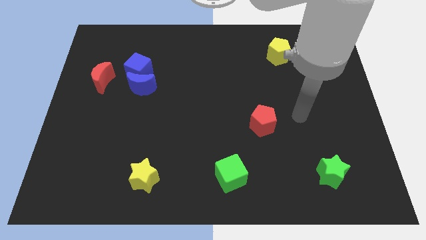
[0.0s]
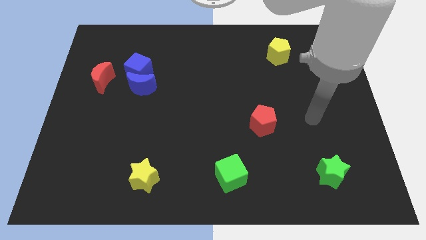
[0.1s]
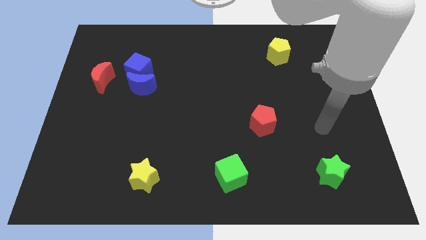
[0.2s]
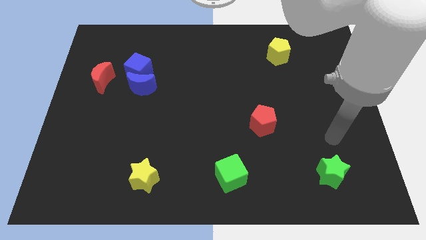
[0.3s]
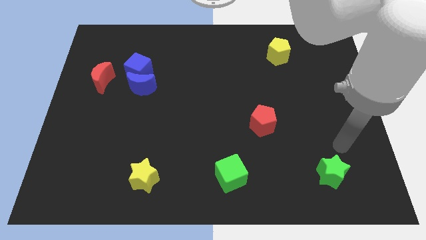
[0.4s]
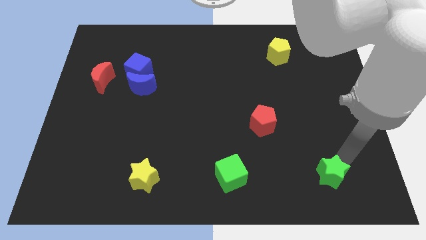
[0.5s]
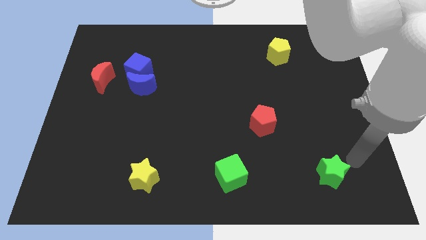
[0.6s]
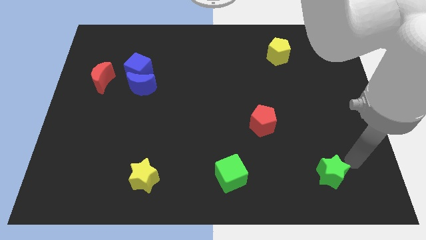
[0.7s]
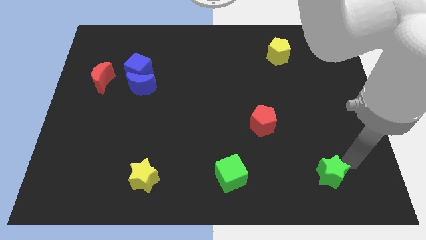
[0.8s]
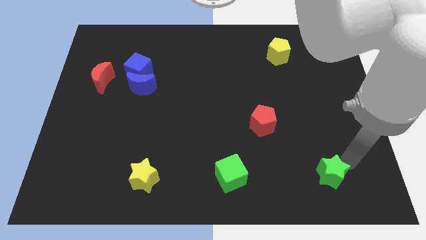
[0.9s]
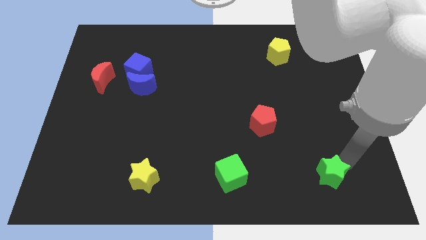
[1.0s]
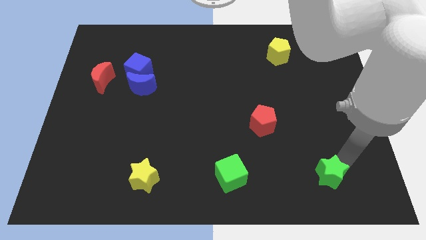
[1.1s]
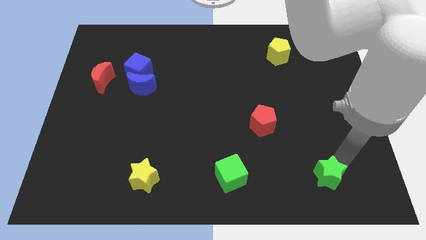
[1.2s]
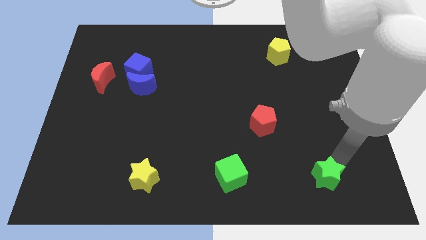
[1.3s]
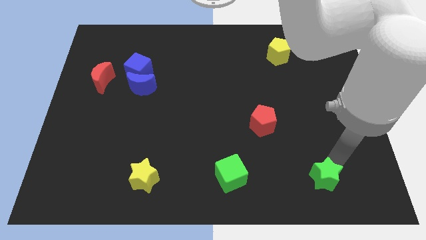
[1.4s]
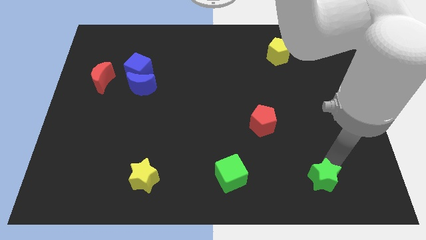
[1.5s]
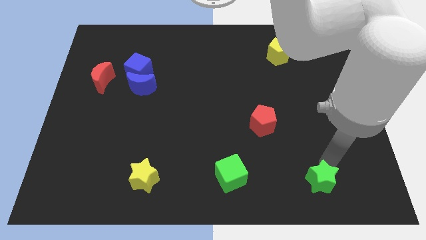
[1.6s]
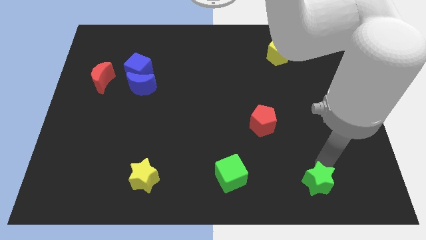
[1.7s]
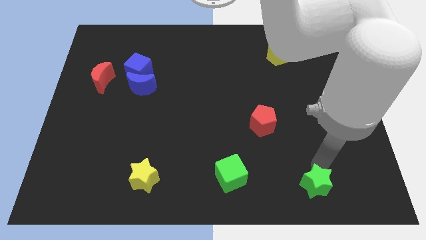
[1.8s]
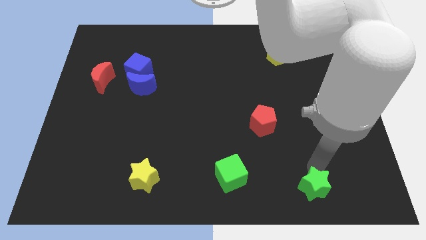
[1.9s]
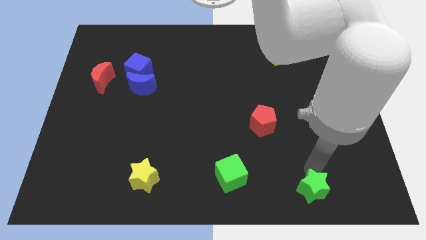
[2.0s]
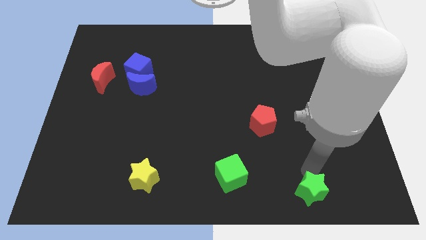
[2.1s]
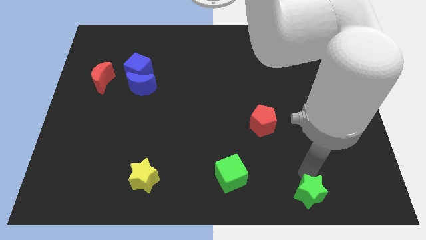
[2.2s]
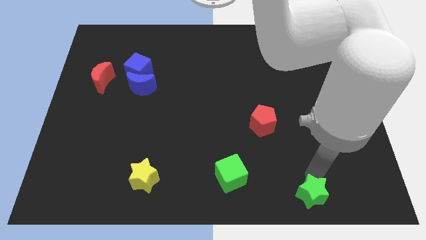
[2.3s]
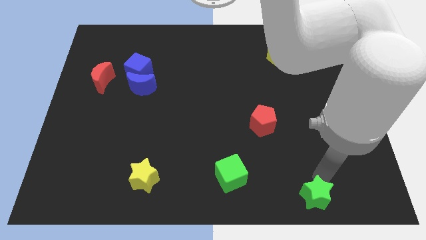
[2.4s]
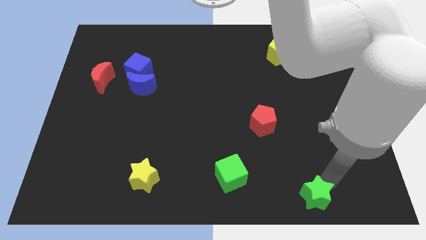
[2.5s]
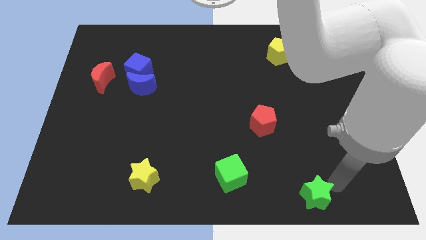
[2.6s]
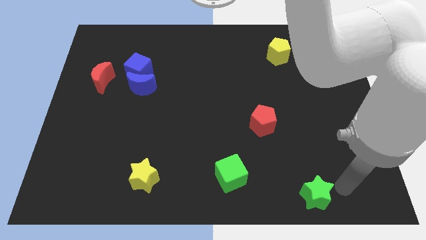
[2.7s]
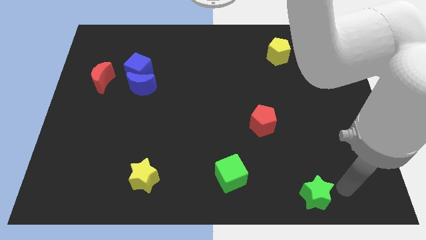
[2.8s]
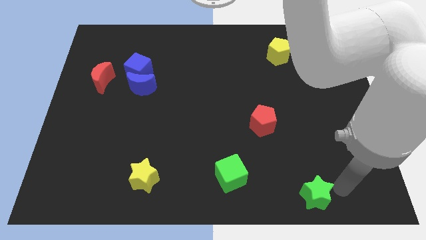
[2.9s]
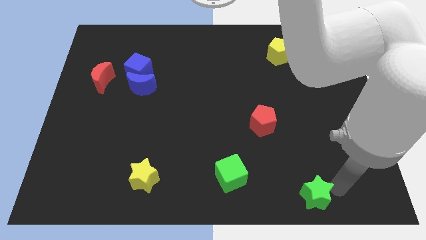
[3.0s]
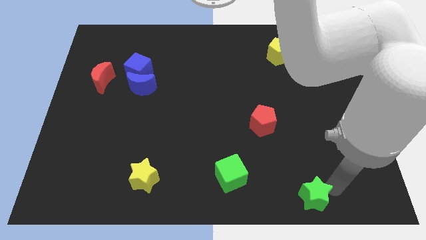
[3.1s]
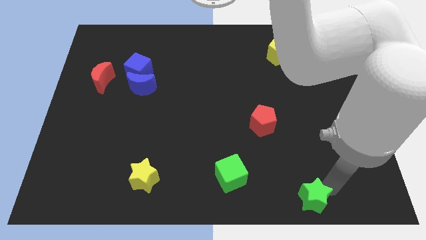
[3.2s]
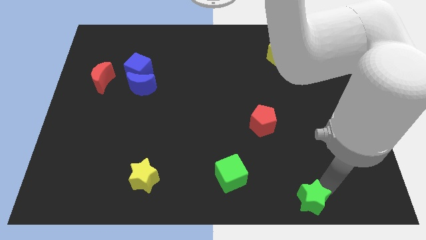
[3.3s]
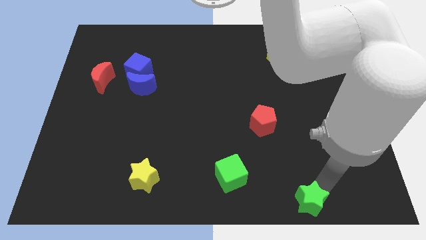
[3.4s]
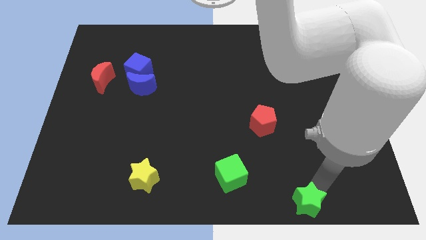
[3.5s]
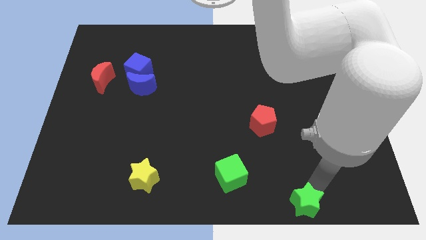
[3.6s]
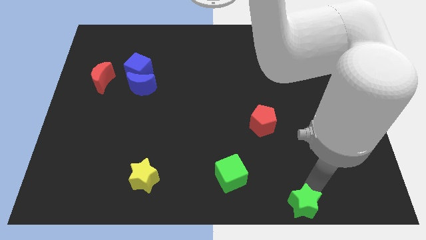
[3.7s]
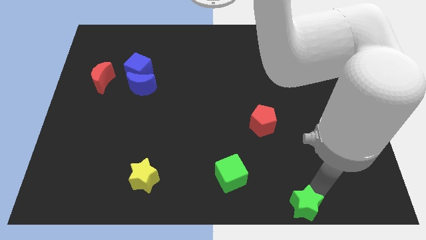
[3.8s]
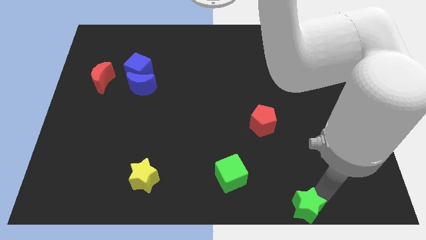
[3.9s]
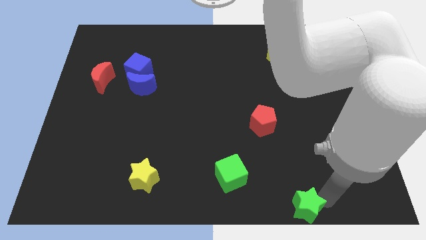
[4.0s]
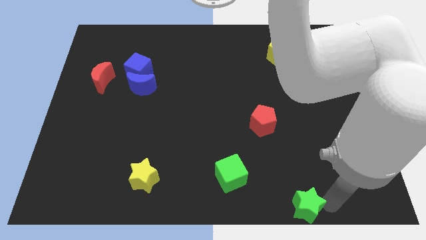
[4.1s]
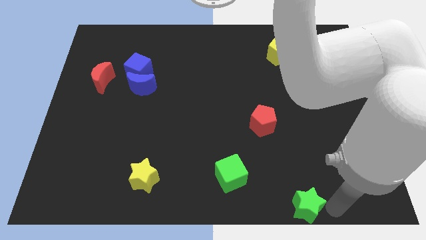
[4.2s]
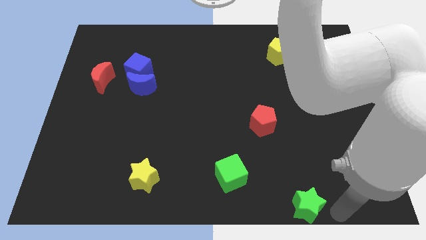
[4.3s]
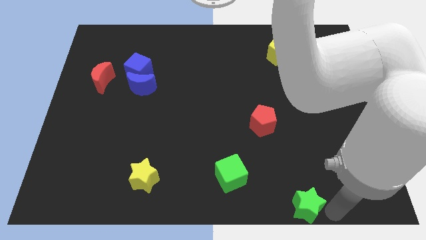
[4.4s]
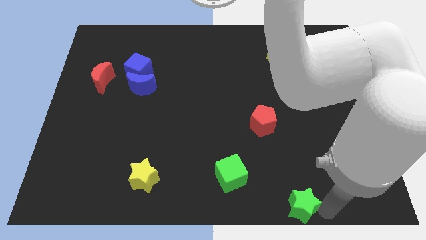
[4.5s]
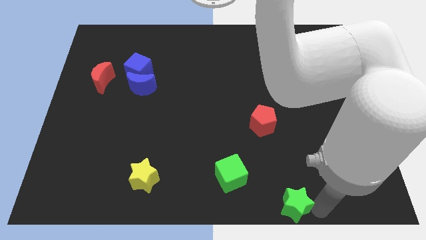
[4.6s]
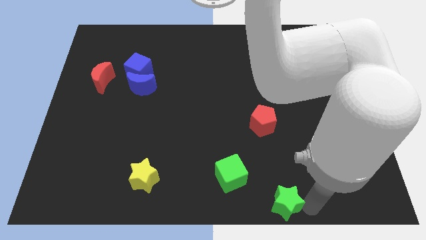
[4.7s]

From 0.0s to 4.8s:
put the green star to the bottom side

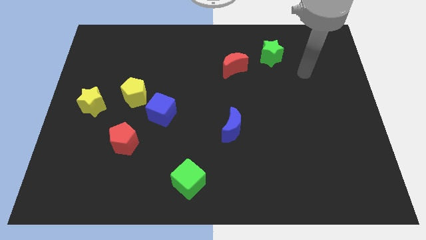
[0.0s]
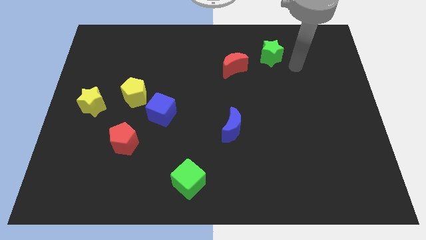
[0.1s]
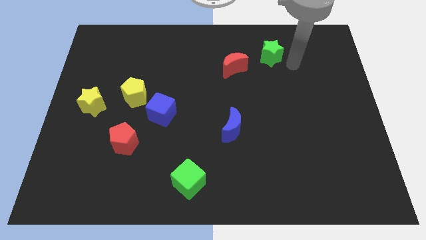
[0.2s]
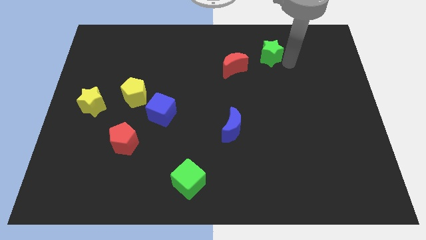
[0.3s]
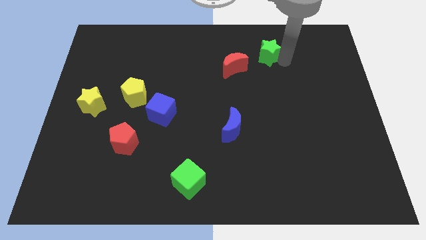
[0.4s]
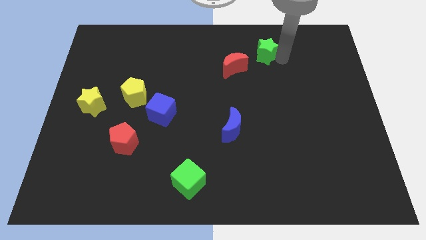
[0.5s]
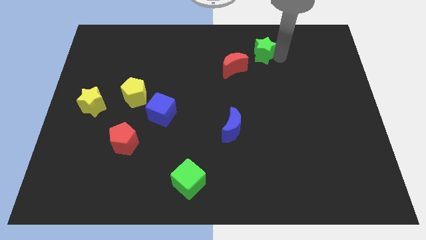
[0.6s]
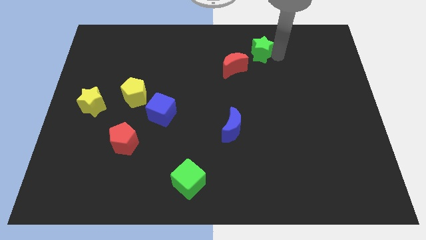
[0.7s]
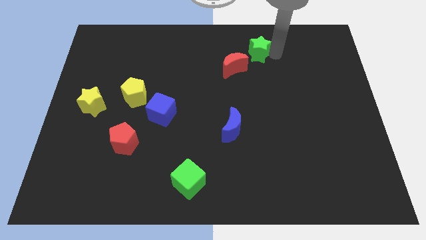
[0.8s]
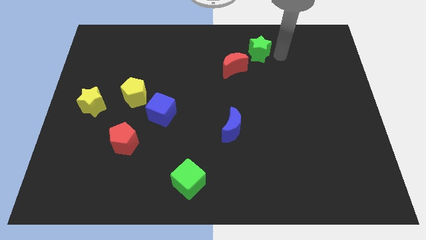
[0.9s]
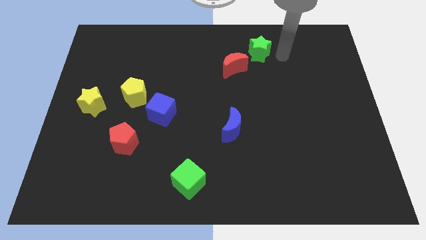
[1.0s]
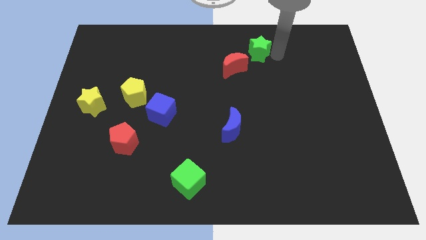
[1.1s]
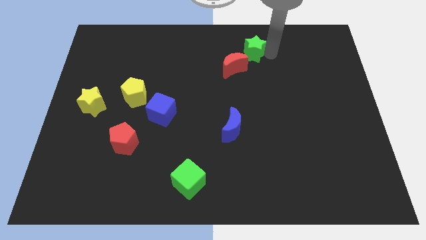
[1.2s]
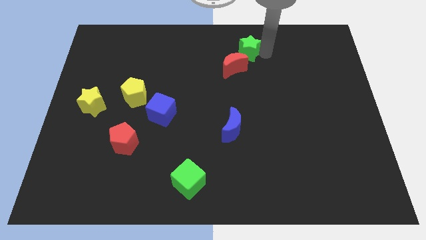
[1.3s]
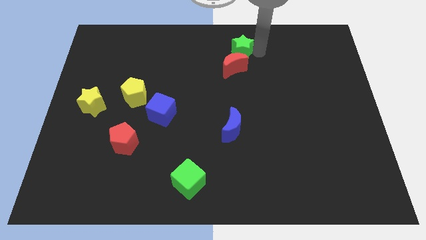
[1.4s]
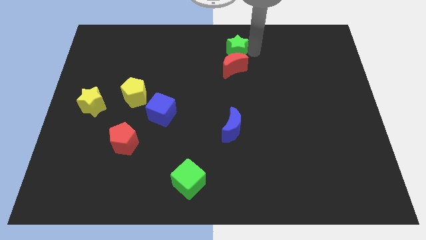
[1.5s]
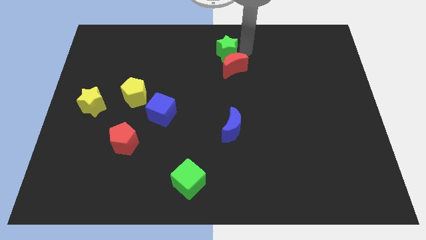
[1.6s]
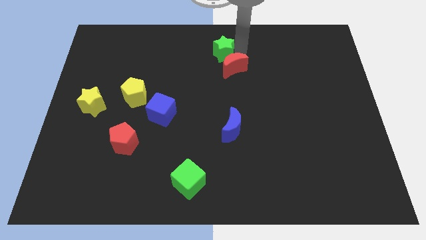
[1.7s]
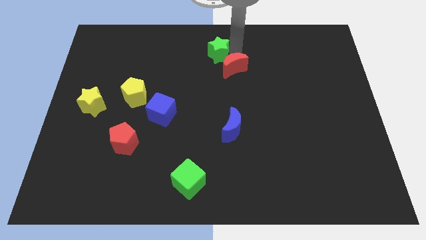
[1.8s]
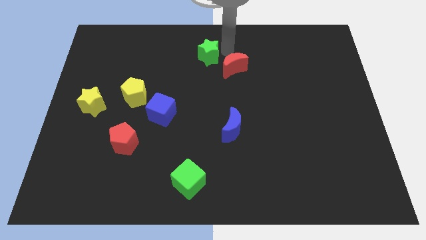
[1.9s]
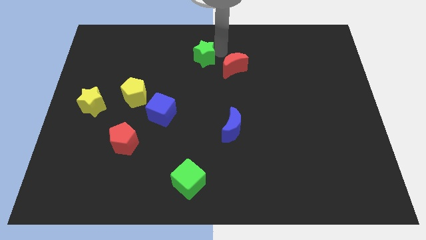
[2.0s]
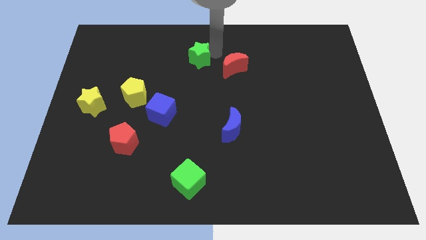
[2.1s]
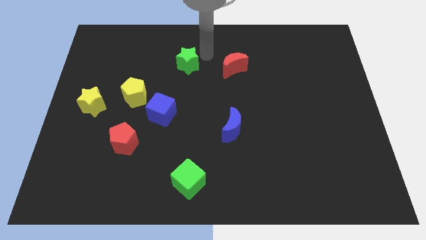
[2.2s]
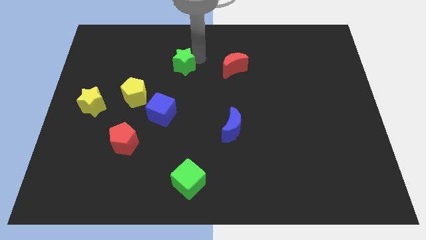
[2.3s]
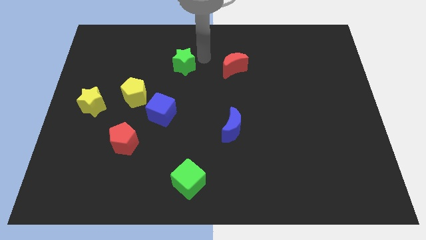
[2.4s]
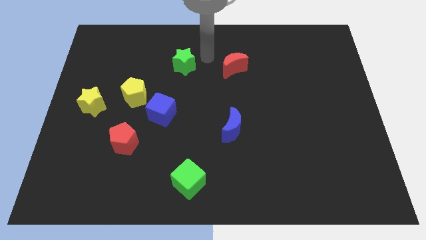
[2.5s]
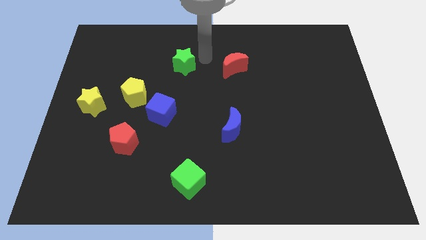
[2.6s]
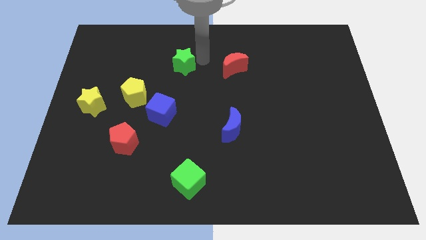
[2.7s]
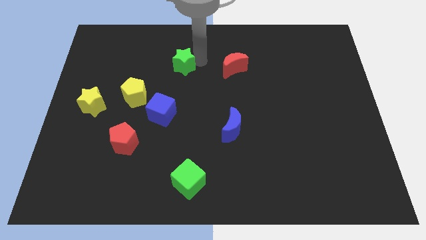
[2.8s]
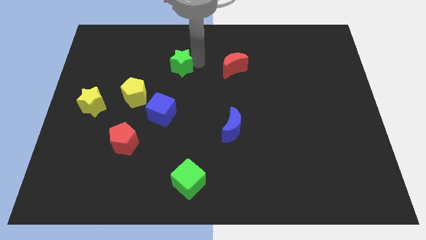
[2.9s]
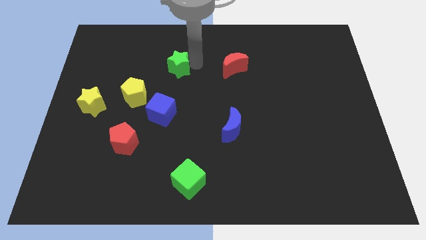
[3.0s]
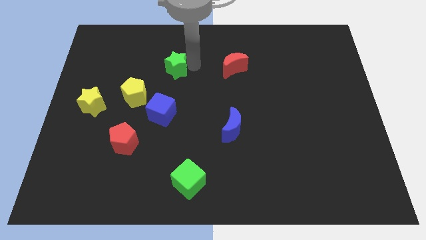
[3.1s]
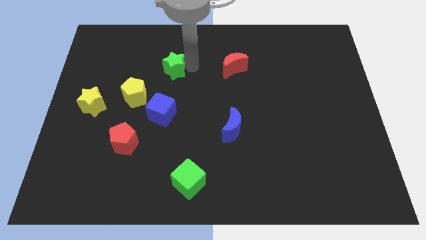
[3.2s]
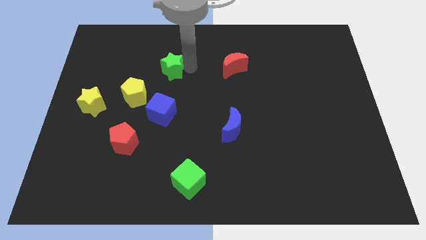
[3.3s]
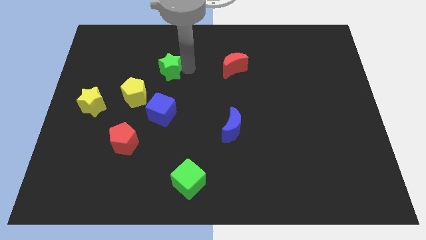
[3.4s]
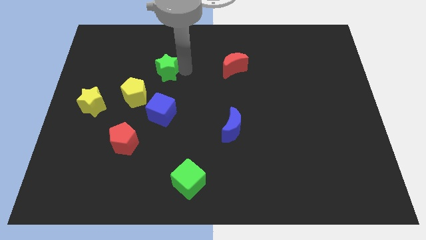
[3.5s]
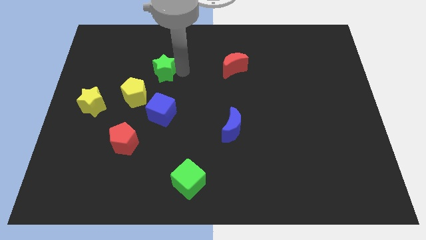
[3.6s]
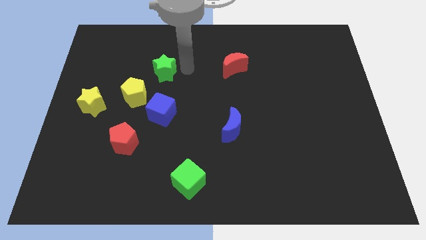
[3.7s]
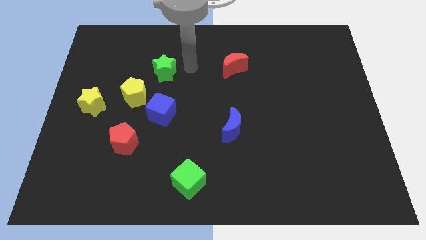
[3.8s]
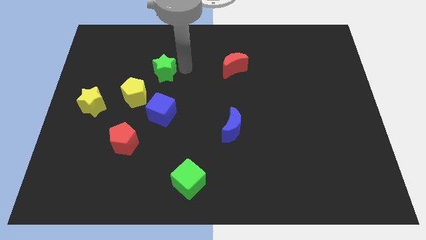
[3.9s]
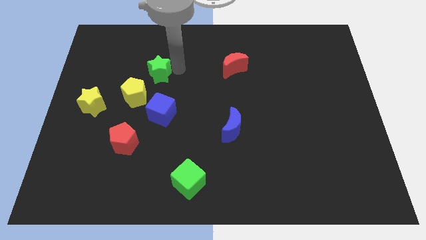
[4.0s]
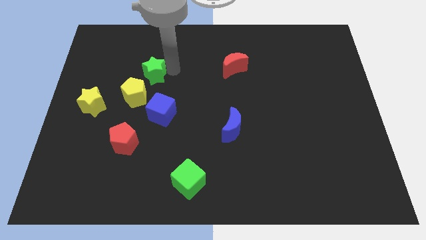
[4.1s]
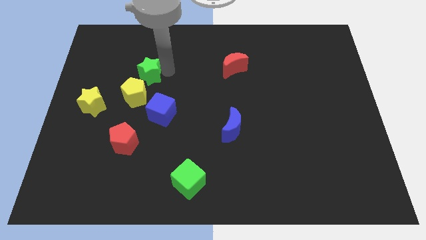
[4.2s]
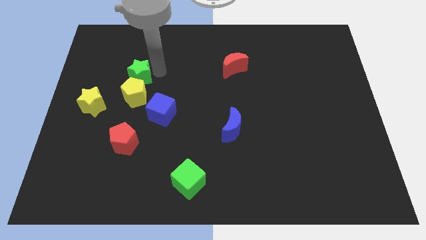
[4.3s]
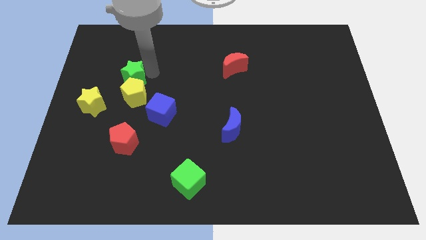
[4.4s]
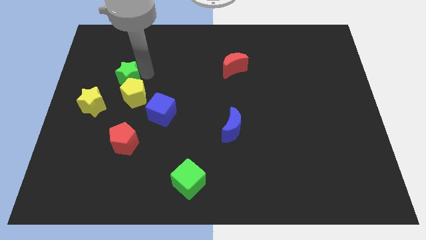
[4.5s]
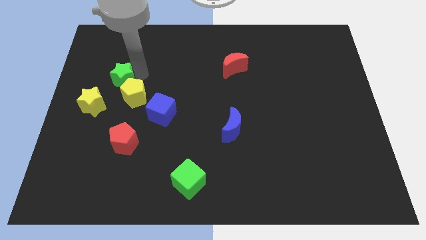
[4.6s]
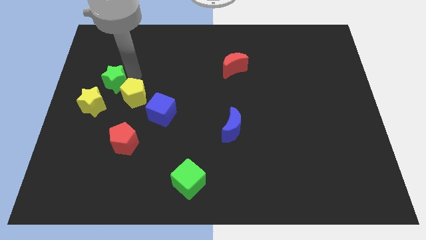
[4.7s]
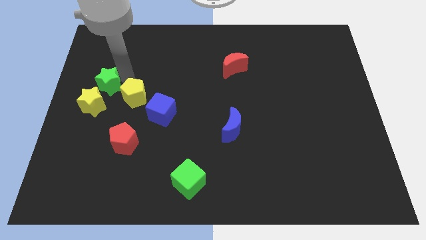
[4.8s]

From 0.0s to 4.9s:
put the green star to the left side
